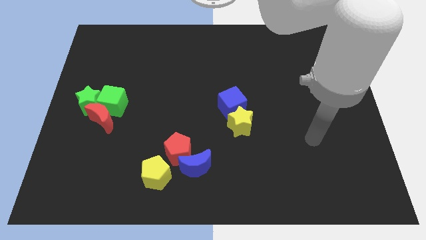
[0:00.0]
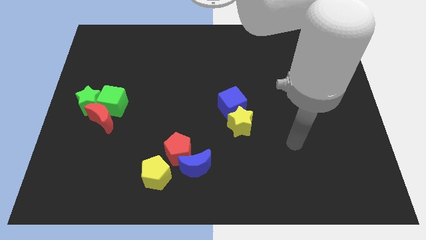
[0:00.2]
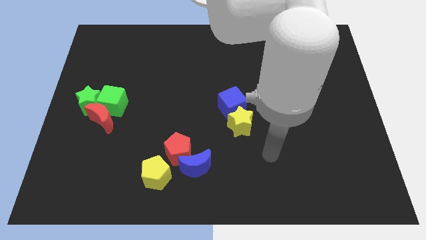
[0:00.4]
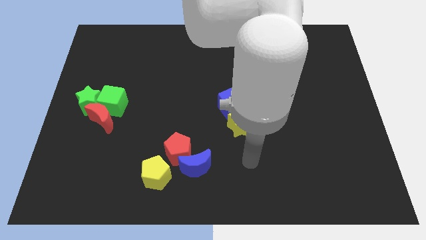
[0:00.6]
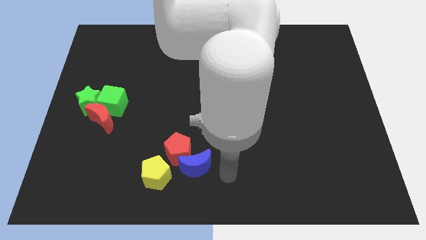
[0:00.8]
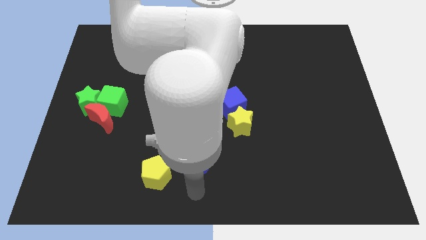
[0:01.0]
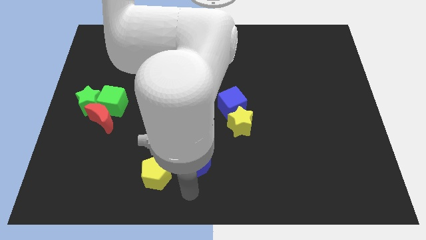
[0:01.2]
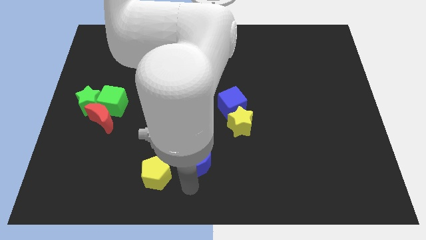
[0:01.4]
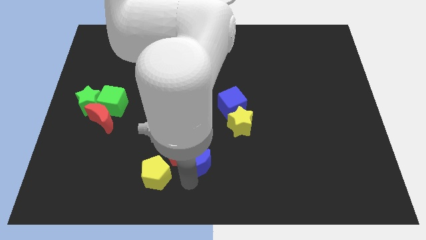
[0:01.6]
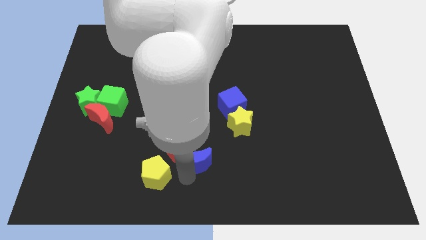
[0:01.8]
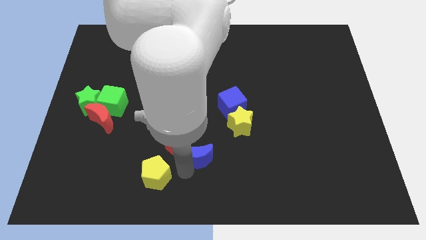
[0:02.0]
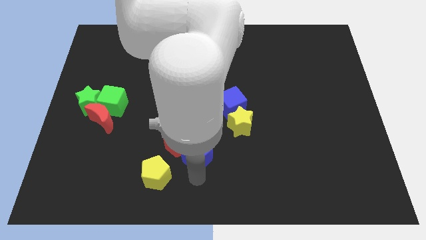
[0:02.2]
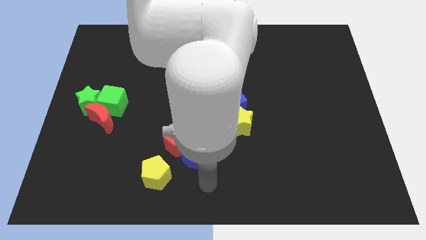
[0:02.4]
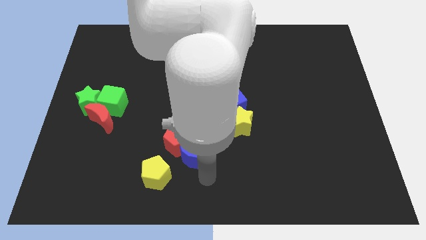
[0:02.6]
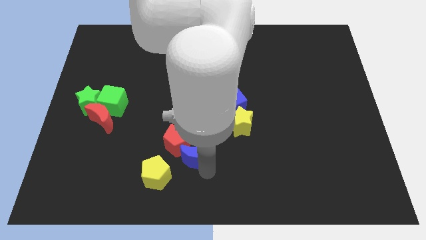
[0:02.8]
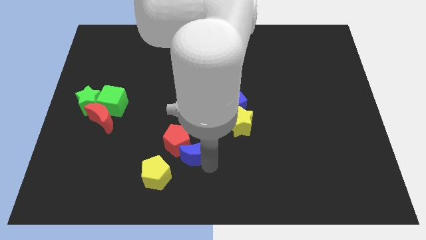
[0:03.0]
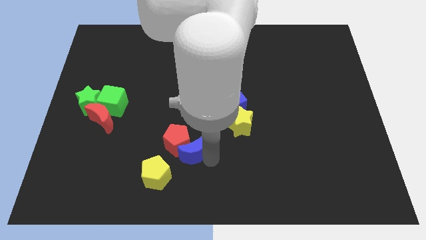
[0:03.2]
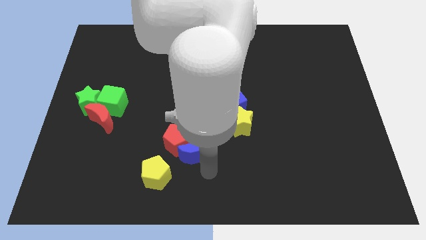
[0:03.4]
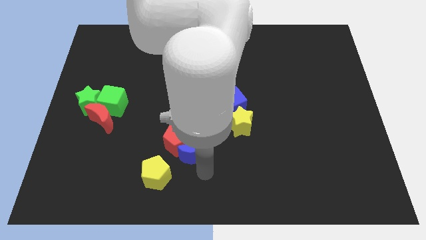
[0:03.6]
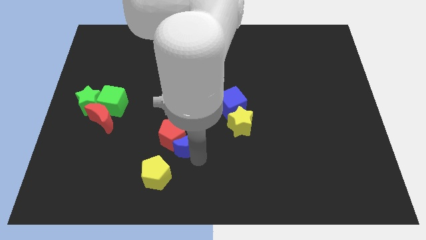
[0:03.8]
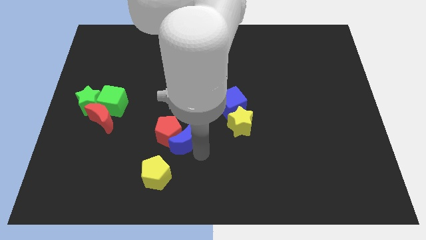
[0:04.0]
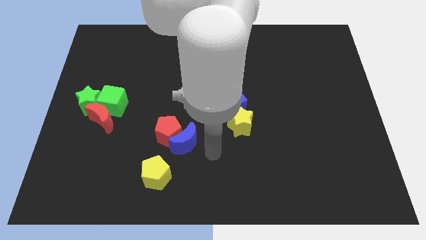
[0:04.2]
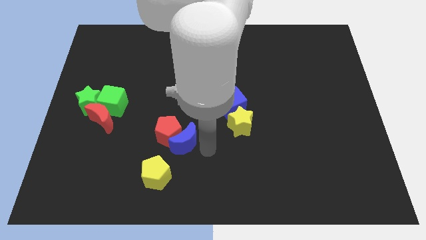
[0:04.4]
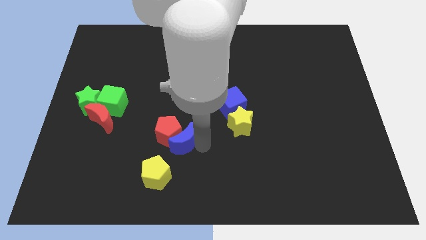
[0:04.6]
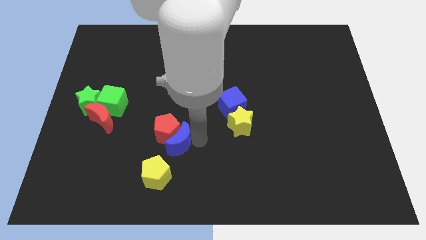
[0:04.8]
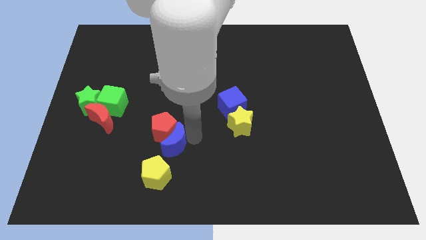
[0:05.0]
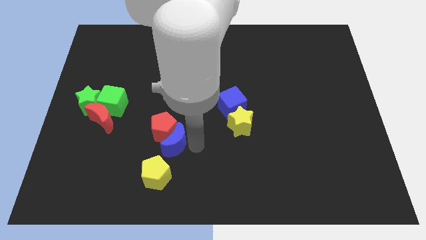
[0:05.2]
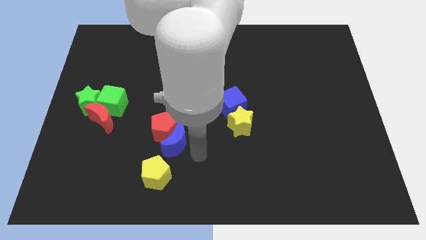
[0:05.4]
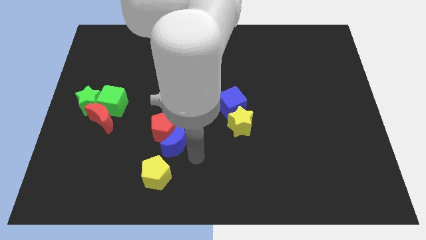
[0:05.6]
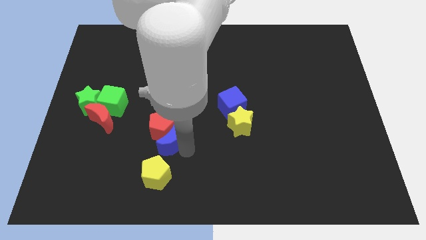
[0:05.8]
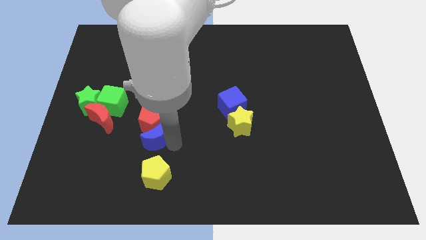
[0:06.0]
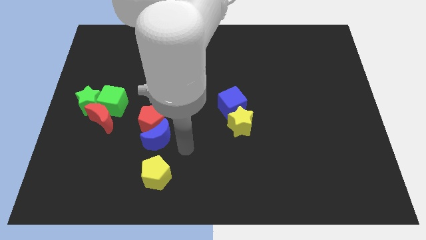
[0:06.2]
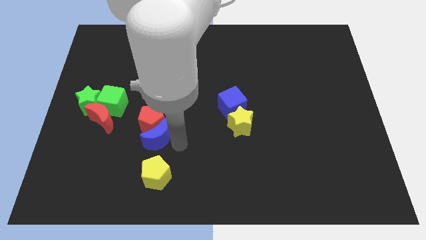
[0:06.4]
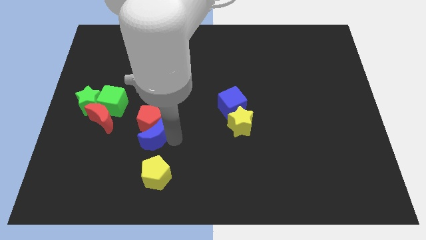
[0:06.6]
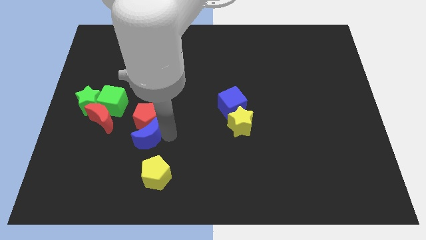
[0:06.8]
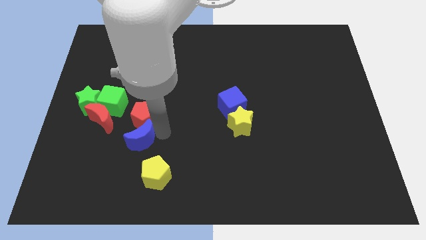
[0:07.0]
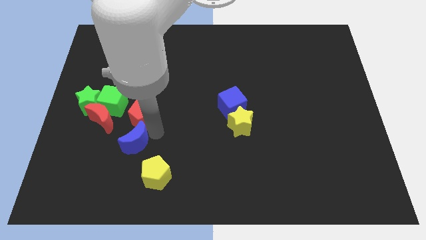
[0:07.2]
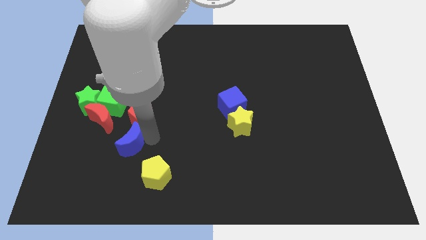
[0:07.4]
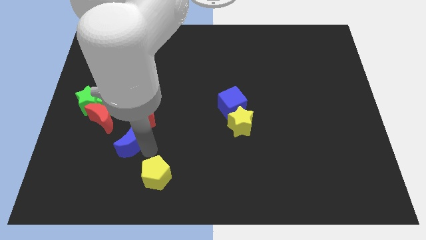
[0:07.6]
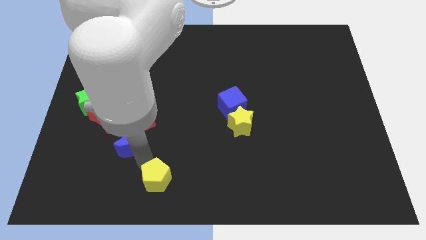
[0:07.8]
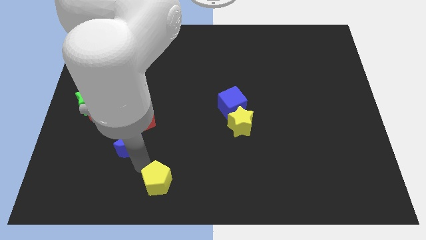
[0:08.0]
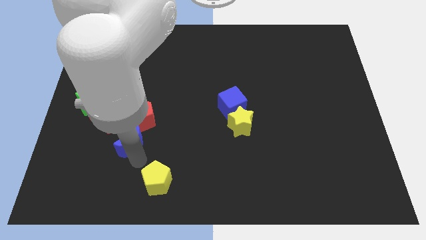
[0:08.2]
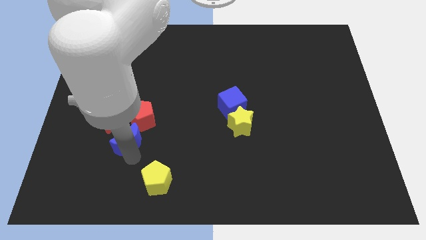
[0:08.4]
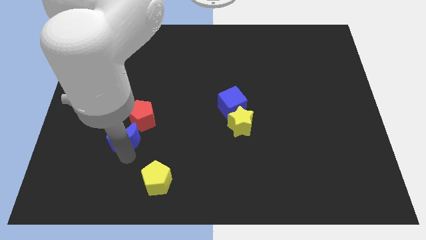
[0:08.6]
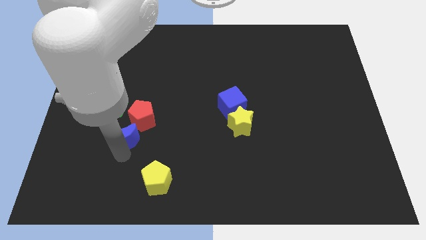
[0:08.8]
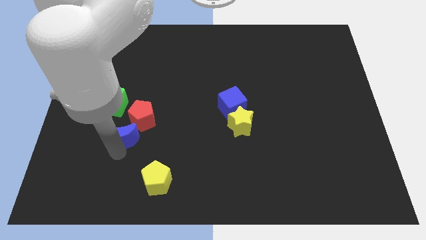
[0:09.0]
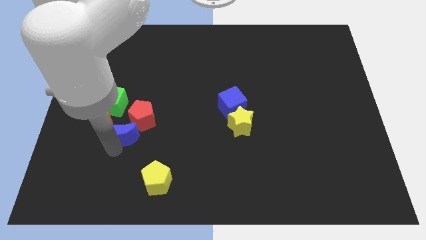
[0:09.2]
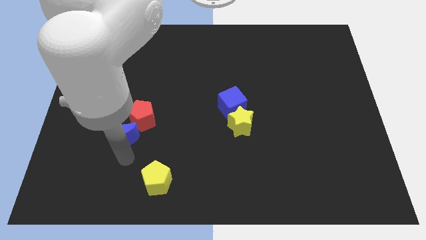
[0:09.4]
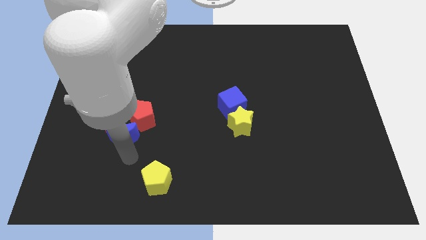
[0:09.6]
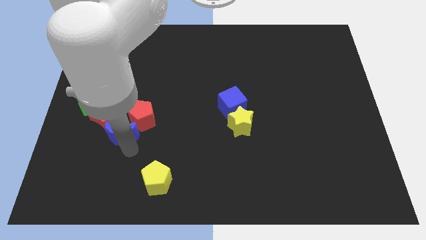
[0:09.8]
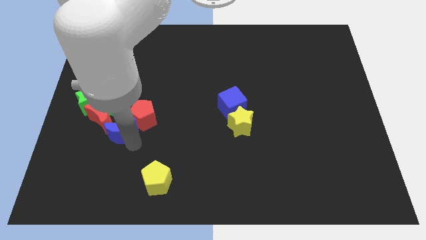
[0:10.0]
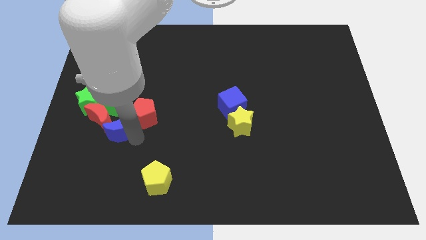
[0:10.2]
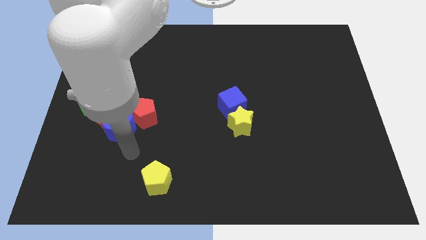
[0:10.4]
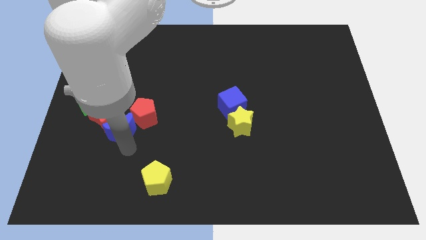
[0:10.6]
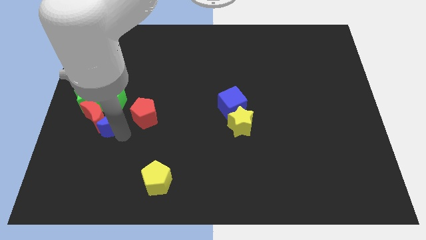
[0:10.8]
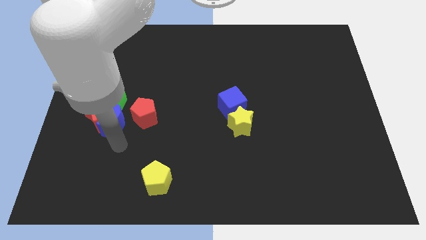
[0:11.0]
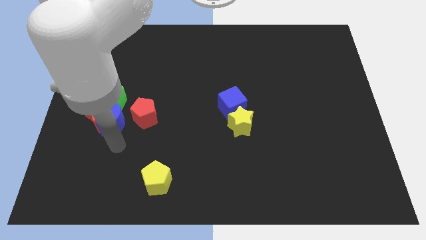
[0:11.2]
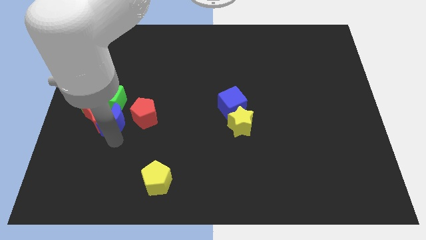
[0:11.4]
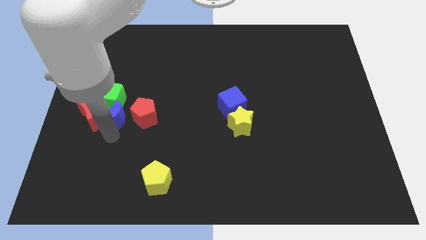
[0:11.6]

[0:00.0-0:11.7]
move the blue moon towards the green cube
